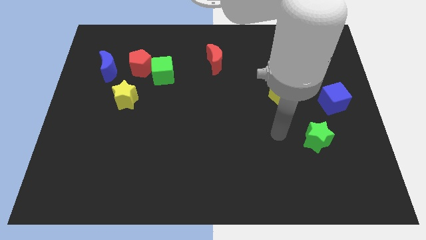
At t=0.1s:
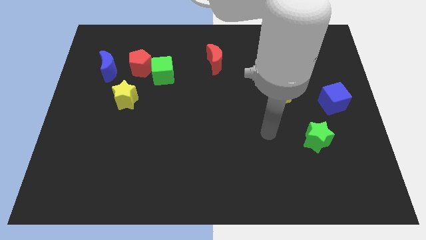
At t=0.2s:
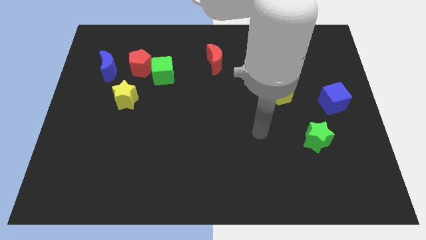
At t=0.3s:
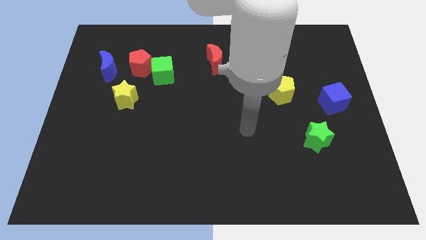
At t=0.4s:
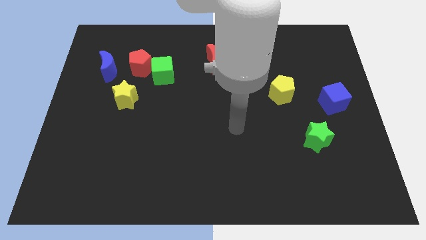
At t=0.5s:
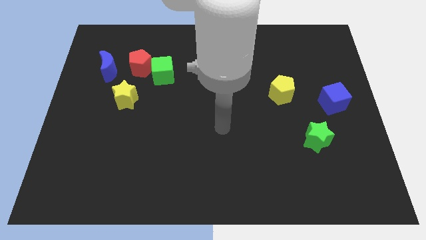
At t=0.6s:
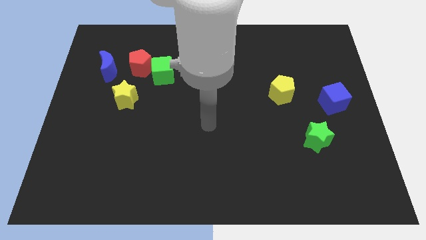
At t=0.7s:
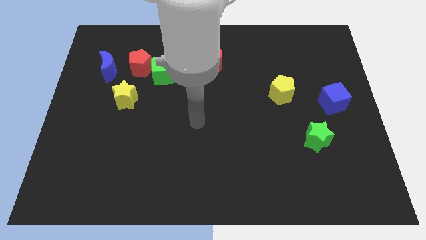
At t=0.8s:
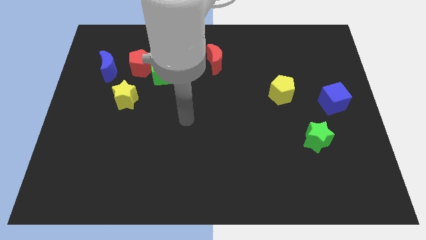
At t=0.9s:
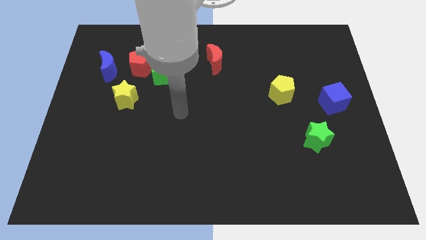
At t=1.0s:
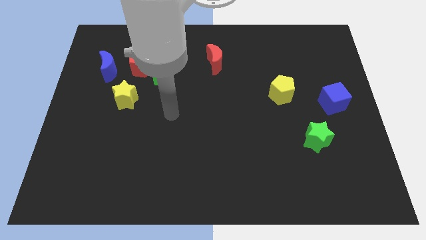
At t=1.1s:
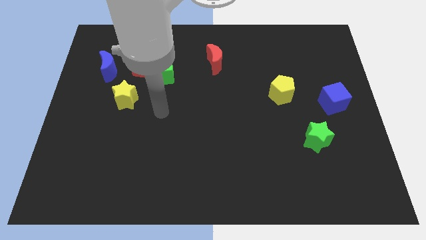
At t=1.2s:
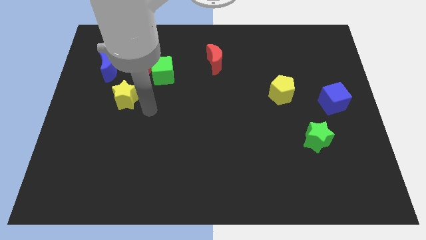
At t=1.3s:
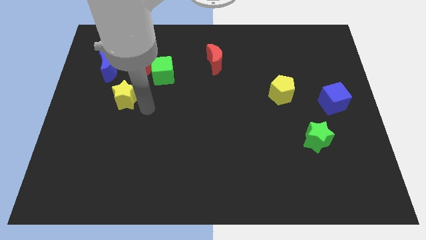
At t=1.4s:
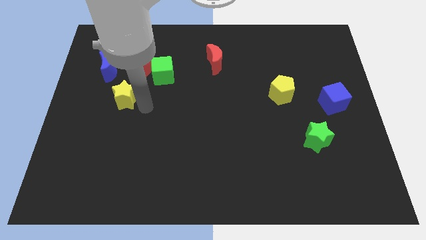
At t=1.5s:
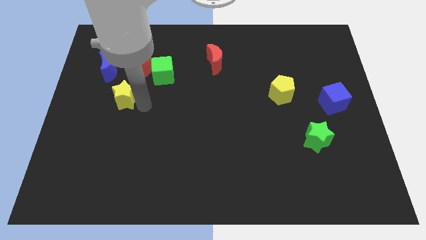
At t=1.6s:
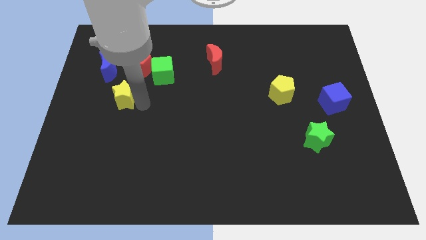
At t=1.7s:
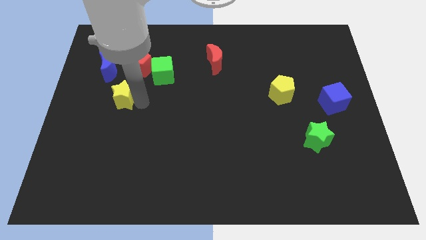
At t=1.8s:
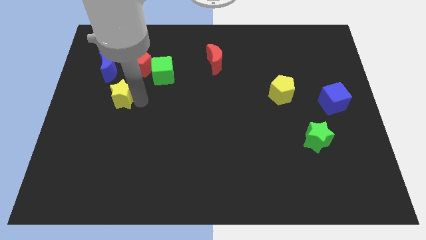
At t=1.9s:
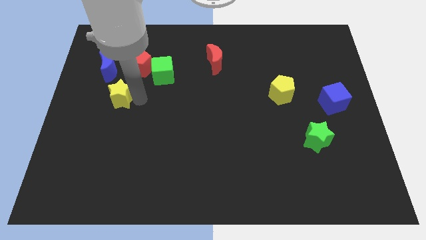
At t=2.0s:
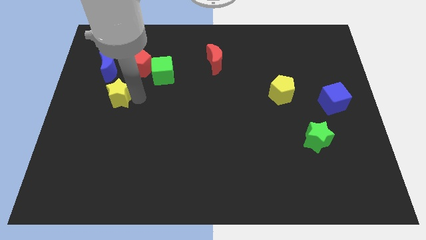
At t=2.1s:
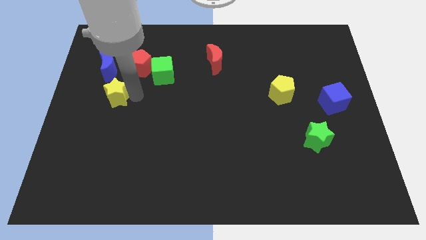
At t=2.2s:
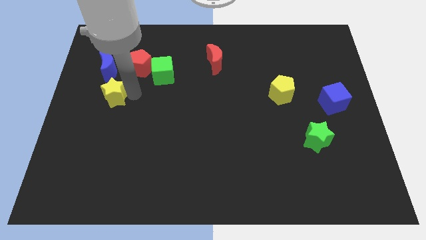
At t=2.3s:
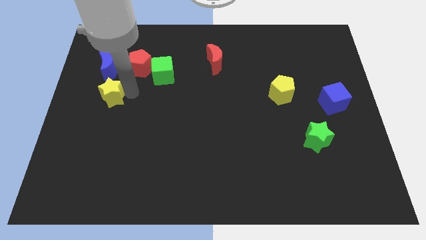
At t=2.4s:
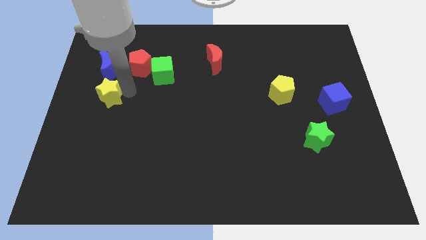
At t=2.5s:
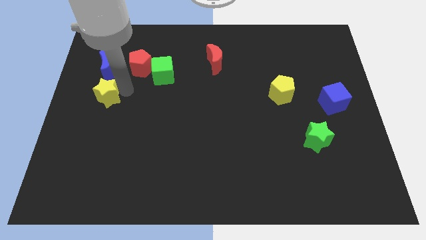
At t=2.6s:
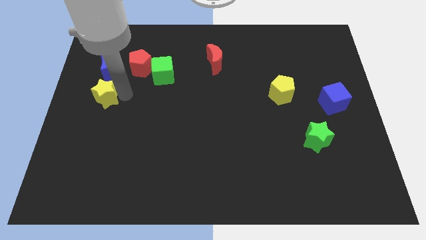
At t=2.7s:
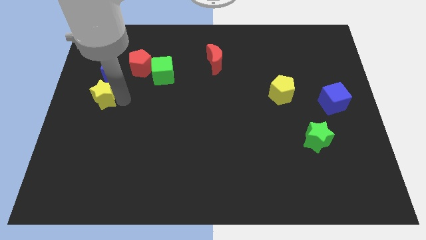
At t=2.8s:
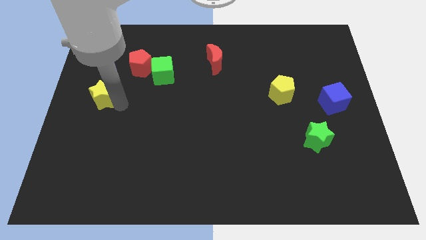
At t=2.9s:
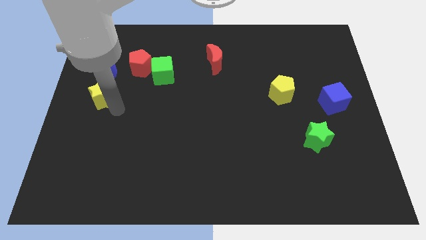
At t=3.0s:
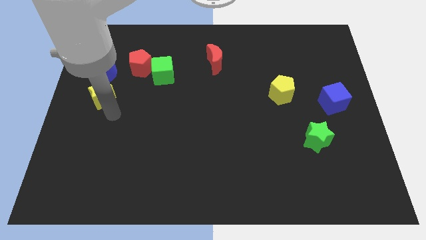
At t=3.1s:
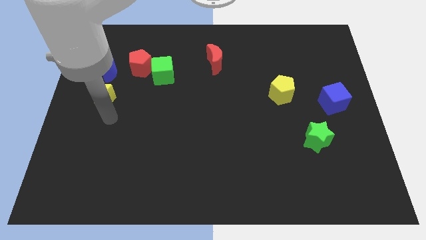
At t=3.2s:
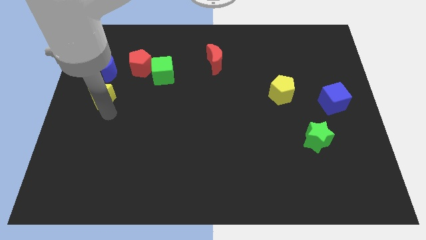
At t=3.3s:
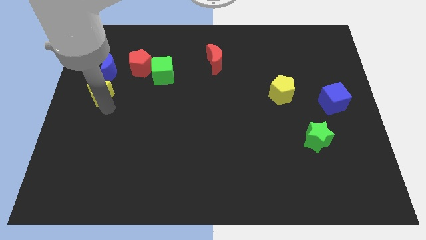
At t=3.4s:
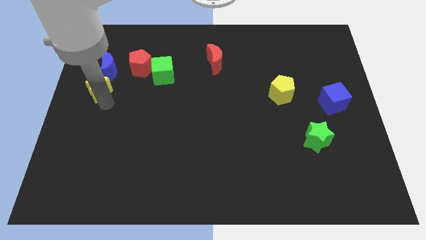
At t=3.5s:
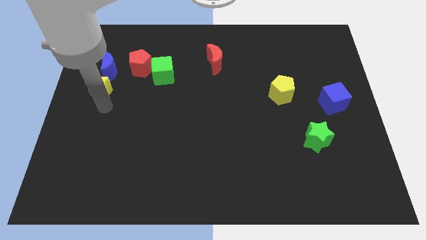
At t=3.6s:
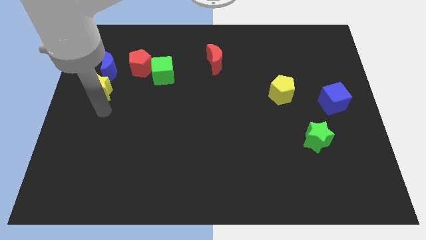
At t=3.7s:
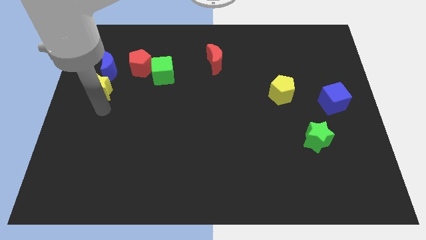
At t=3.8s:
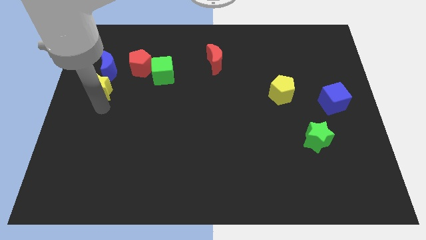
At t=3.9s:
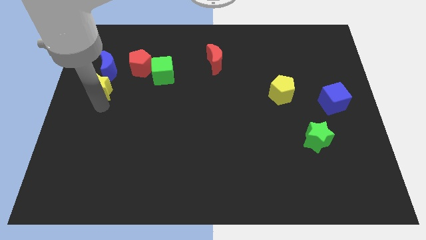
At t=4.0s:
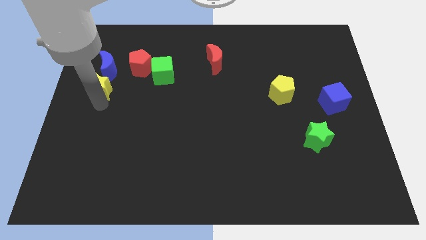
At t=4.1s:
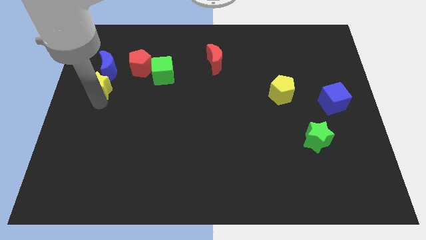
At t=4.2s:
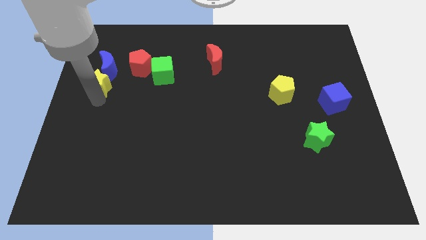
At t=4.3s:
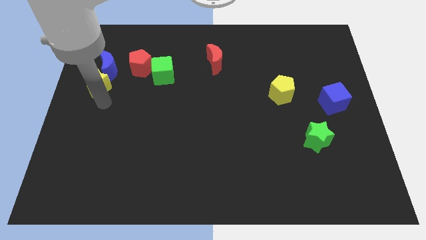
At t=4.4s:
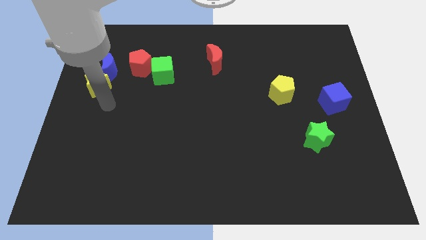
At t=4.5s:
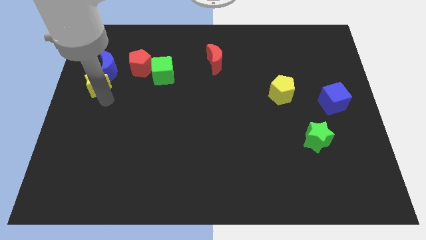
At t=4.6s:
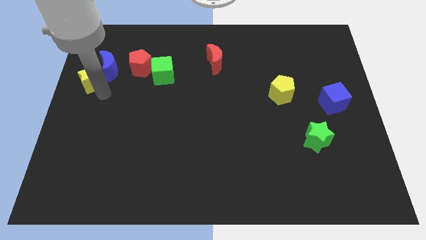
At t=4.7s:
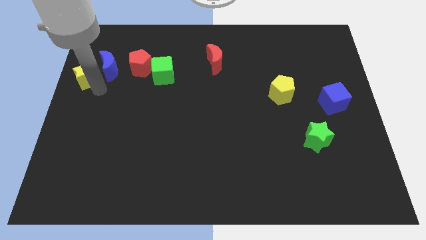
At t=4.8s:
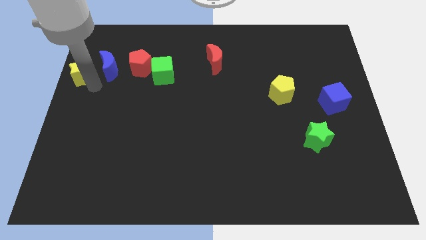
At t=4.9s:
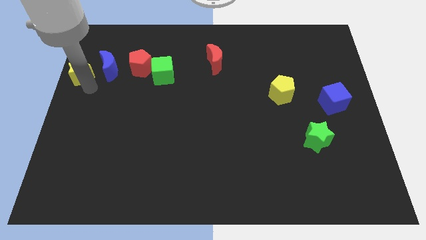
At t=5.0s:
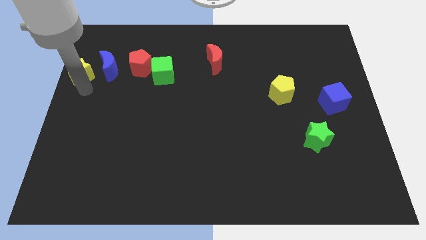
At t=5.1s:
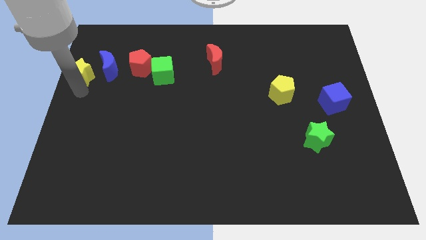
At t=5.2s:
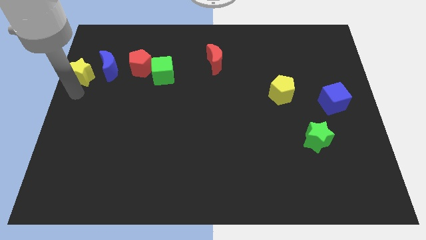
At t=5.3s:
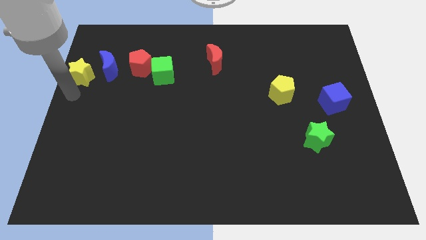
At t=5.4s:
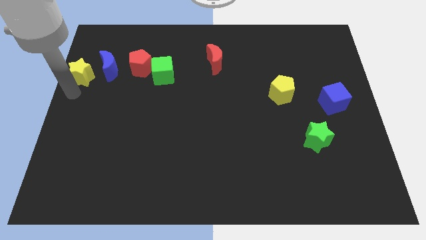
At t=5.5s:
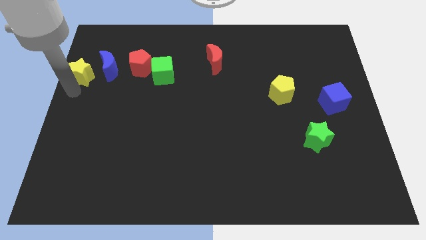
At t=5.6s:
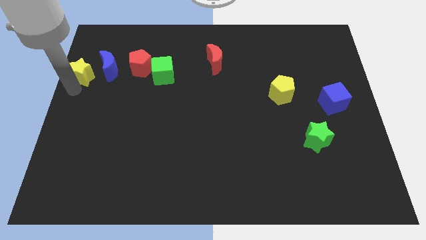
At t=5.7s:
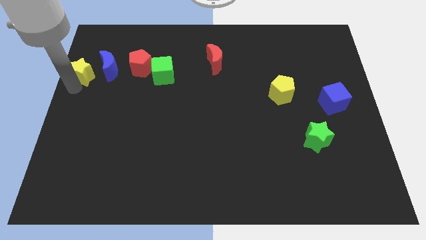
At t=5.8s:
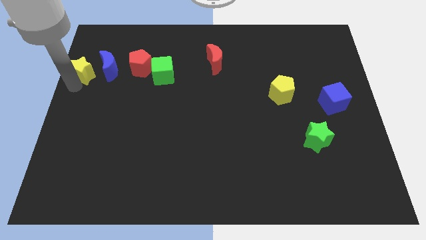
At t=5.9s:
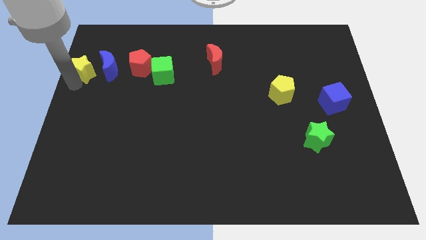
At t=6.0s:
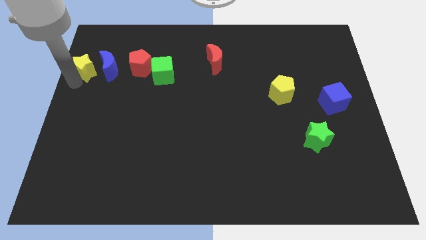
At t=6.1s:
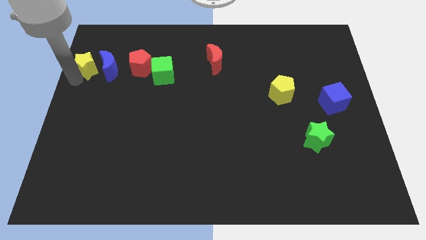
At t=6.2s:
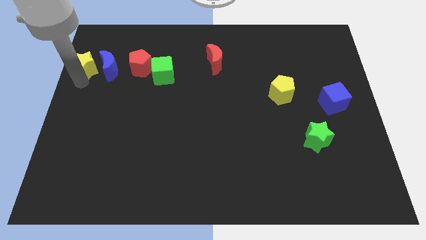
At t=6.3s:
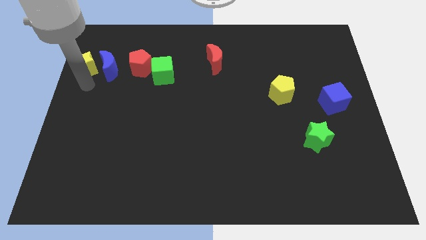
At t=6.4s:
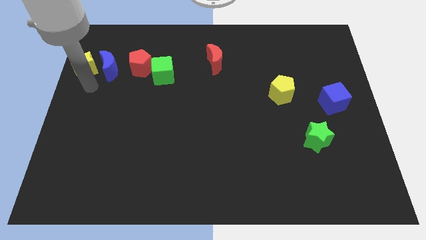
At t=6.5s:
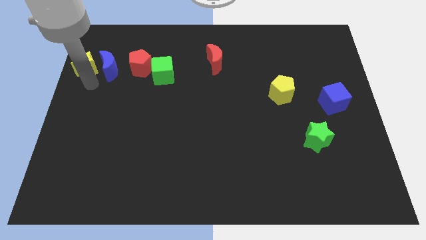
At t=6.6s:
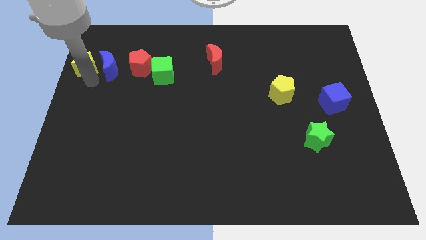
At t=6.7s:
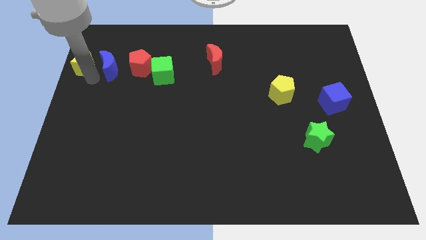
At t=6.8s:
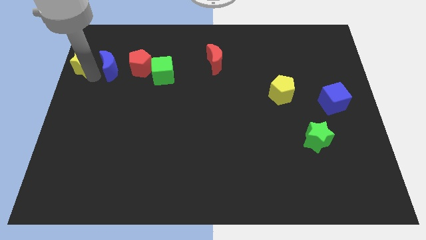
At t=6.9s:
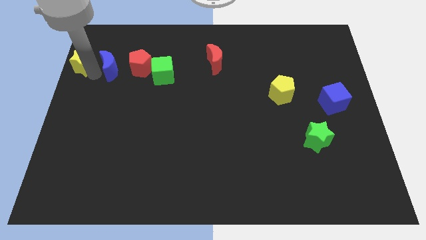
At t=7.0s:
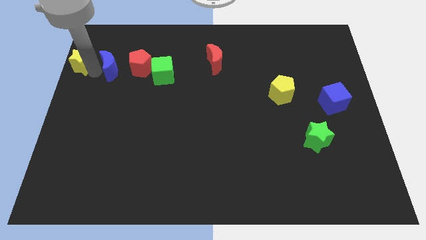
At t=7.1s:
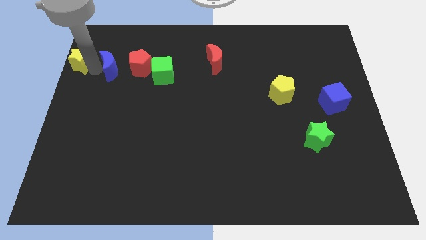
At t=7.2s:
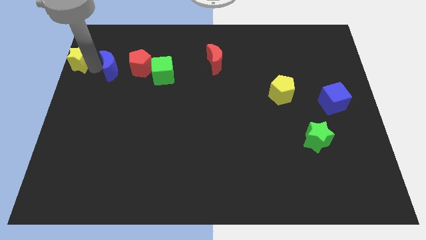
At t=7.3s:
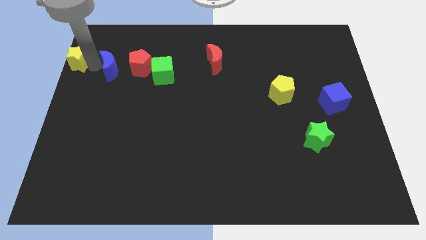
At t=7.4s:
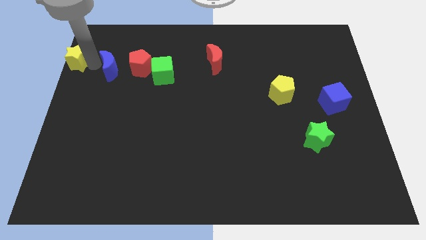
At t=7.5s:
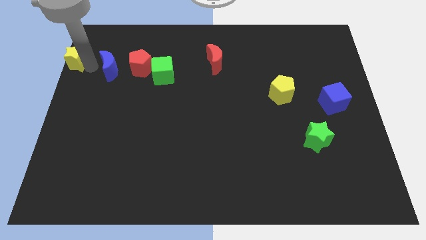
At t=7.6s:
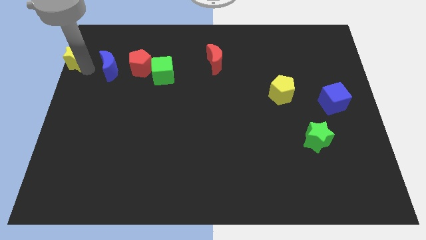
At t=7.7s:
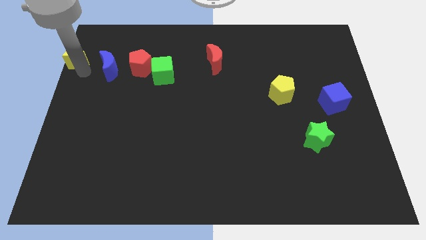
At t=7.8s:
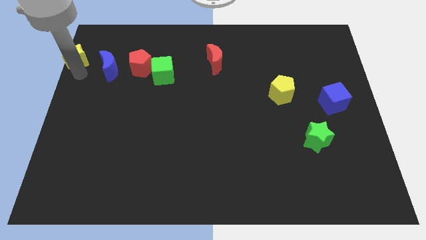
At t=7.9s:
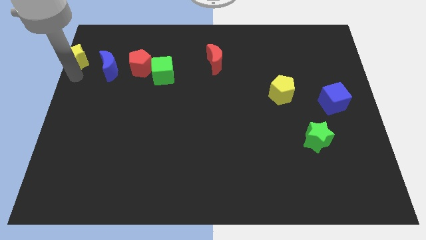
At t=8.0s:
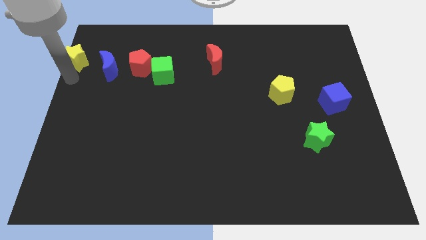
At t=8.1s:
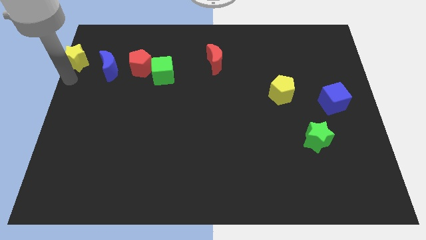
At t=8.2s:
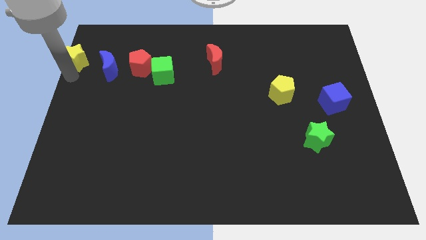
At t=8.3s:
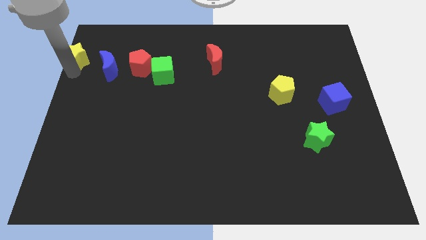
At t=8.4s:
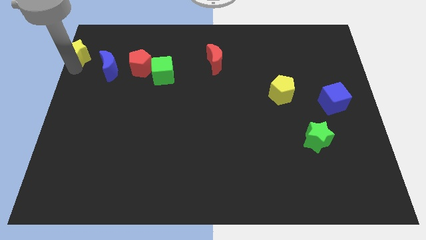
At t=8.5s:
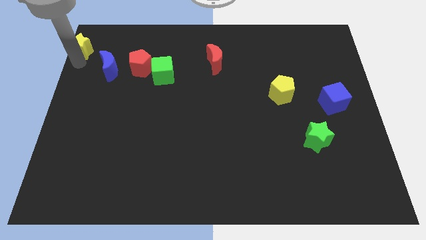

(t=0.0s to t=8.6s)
move the yellow star to the top left of the board
